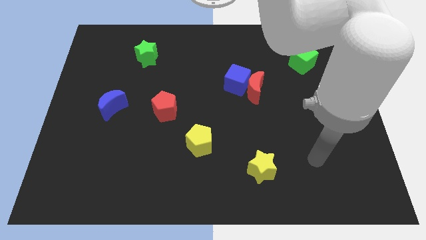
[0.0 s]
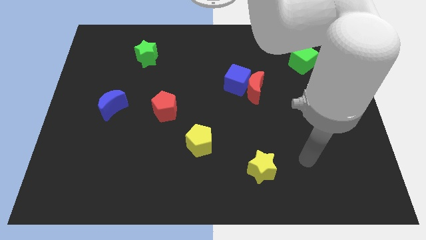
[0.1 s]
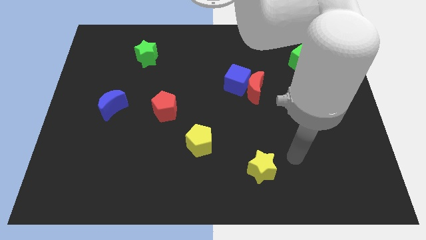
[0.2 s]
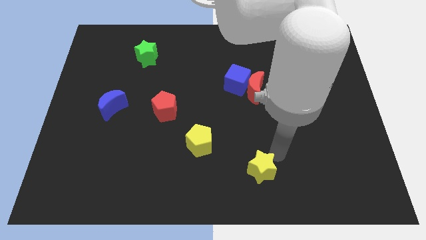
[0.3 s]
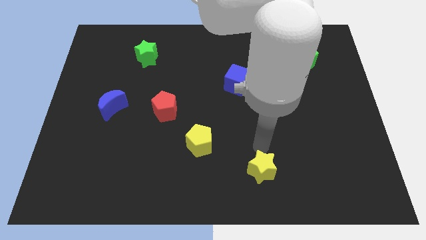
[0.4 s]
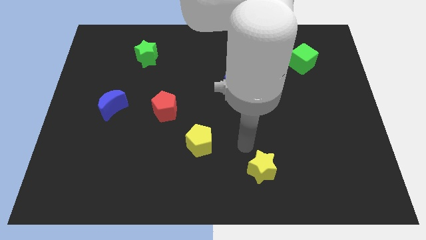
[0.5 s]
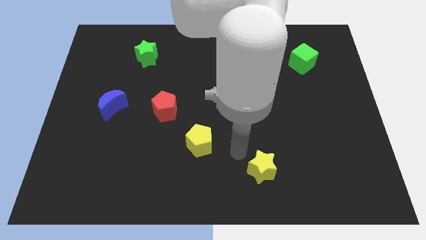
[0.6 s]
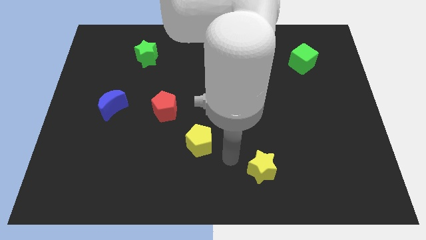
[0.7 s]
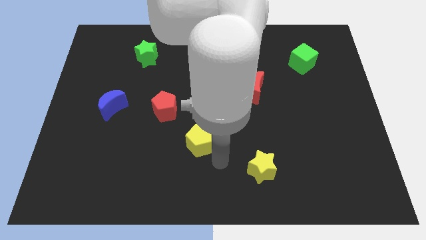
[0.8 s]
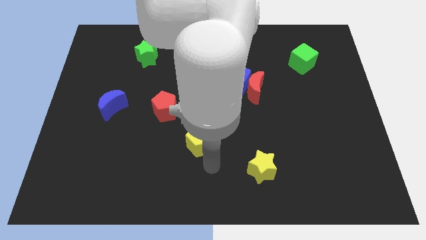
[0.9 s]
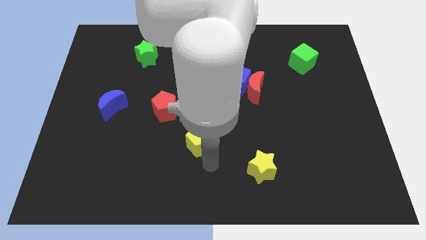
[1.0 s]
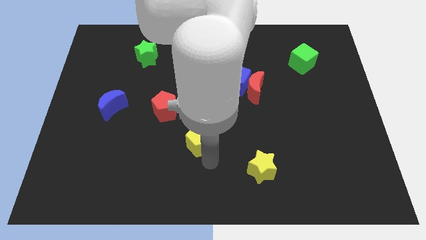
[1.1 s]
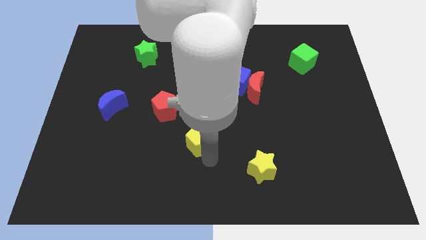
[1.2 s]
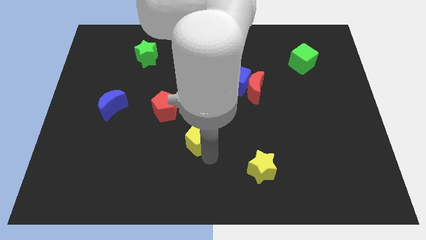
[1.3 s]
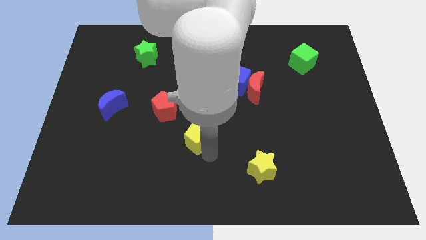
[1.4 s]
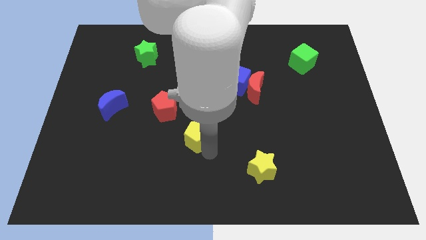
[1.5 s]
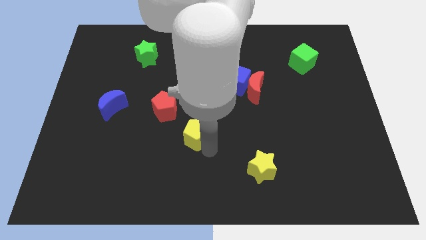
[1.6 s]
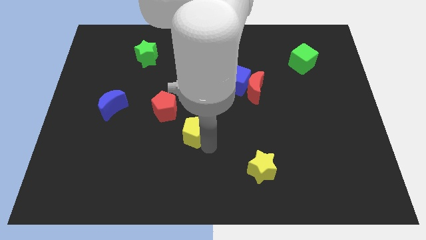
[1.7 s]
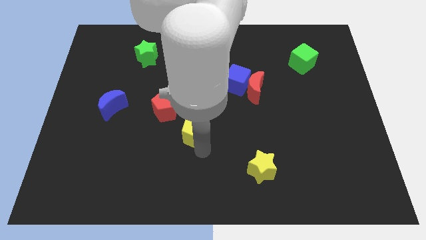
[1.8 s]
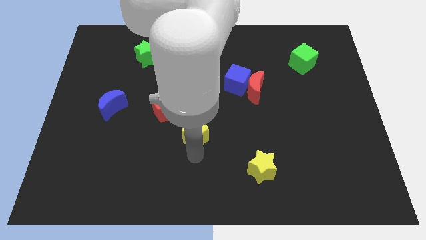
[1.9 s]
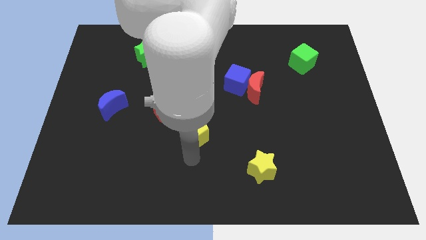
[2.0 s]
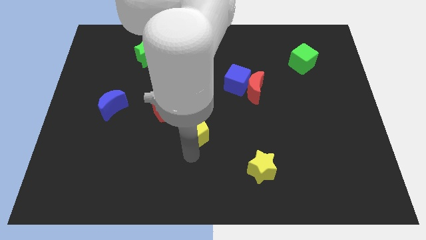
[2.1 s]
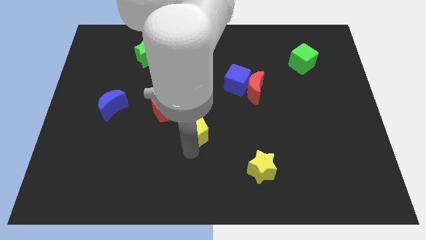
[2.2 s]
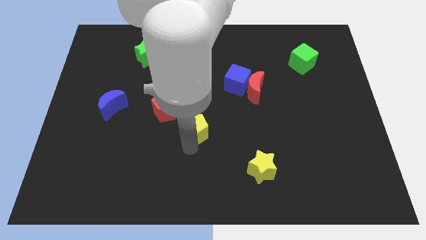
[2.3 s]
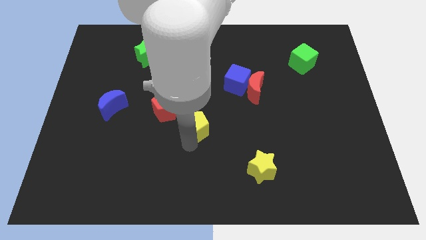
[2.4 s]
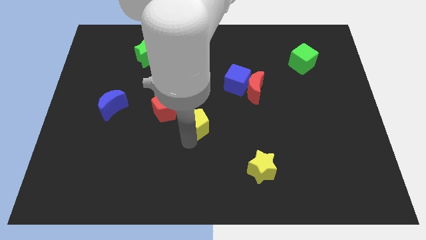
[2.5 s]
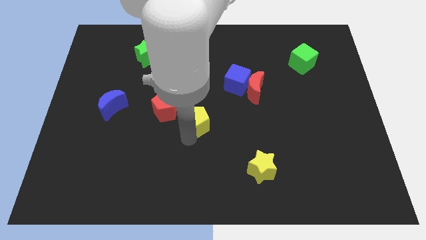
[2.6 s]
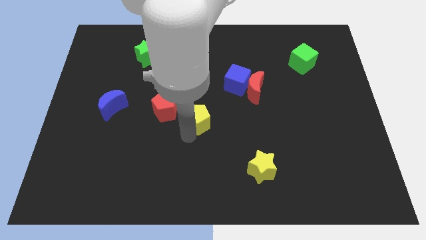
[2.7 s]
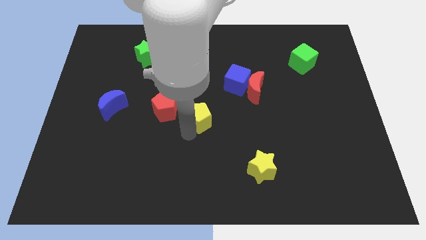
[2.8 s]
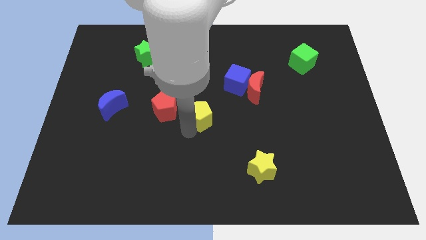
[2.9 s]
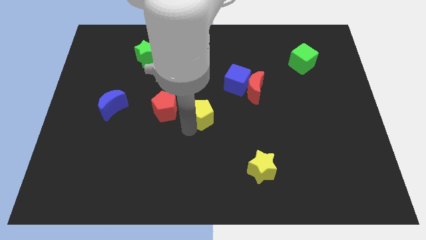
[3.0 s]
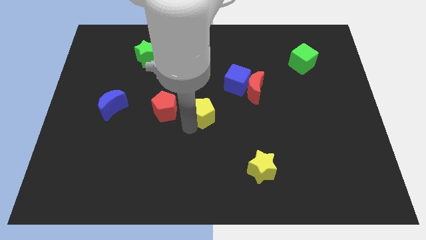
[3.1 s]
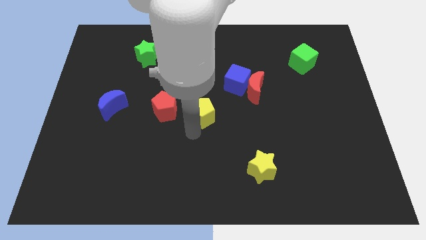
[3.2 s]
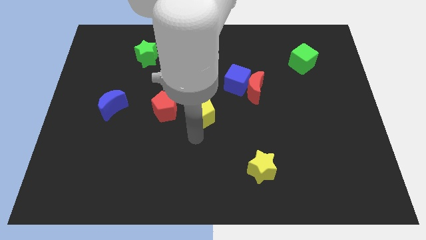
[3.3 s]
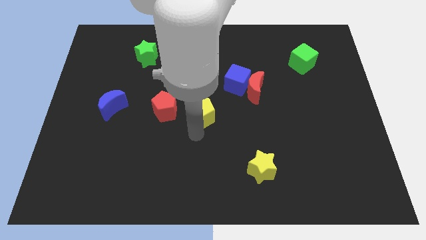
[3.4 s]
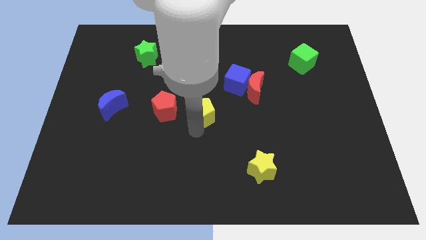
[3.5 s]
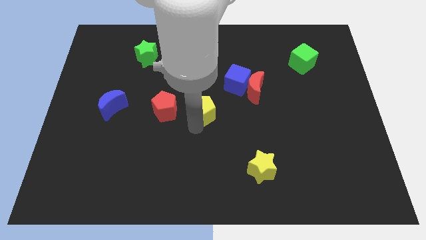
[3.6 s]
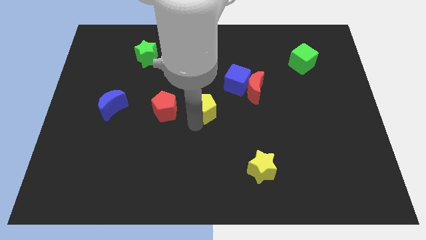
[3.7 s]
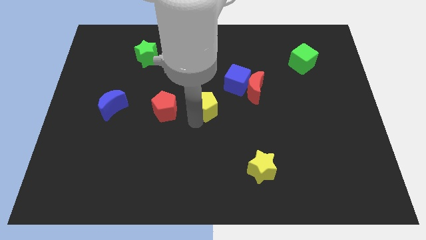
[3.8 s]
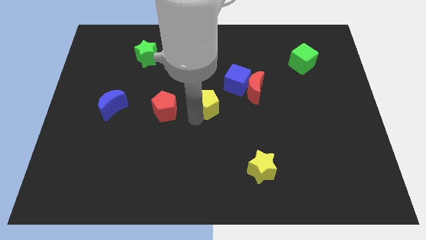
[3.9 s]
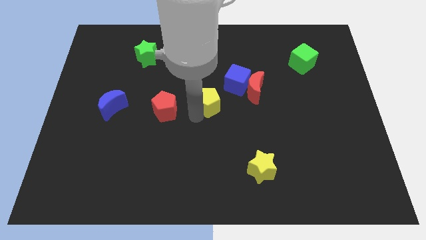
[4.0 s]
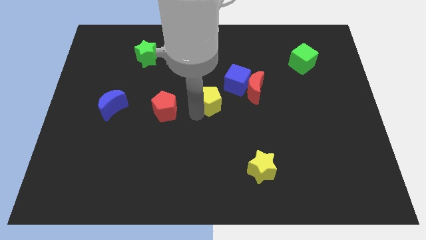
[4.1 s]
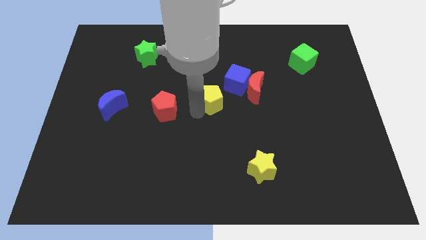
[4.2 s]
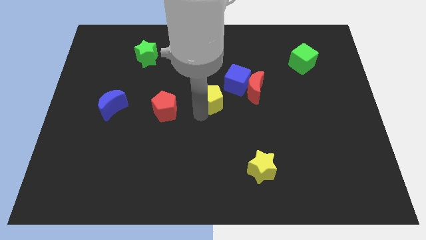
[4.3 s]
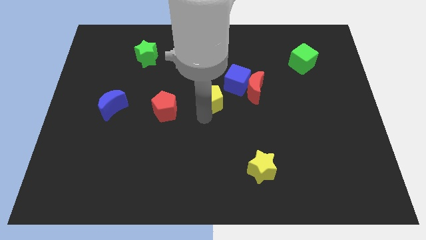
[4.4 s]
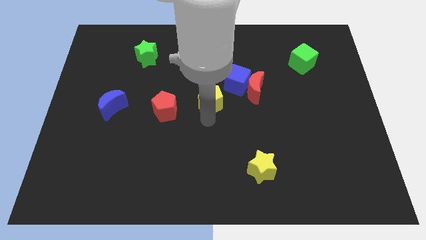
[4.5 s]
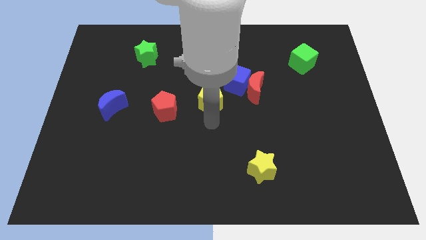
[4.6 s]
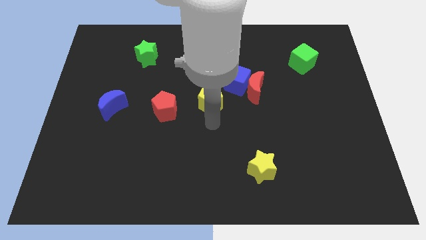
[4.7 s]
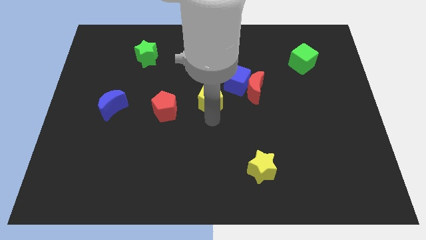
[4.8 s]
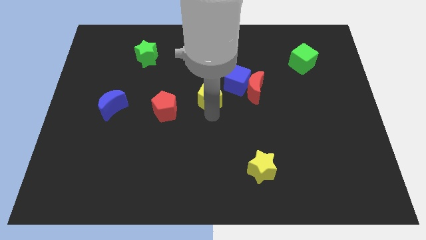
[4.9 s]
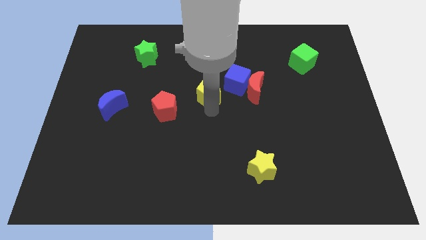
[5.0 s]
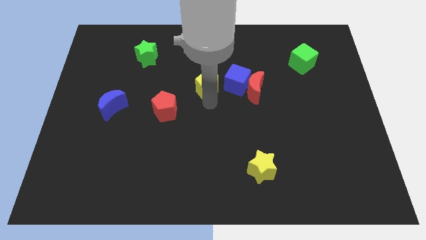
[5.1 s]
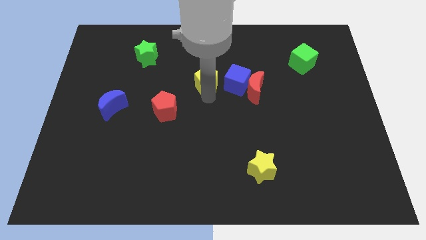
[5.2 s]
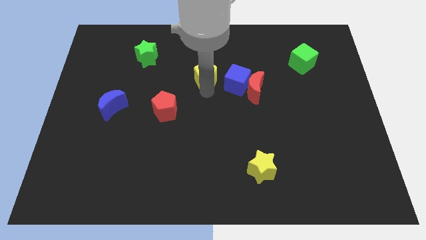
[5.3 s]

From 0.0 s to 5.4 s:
move the yellow pentagon diagonally up and to the left of the blue cube

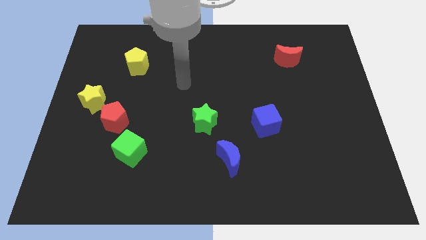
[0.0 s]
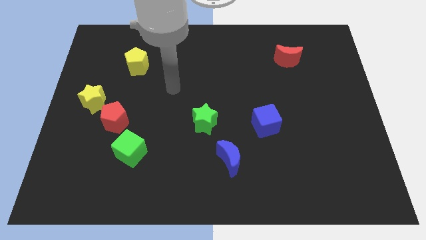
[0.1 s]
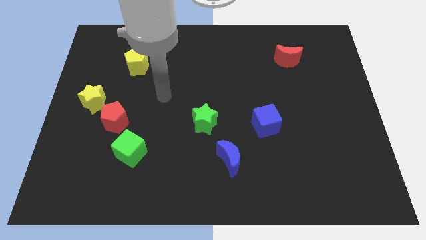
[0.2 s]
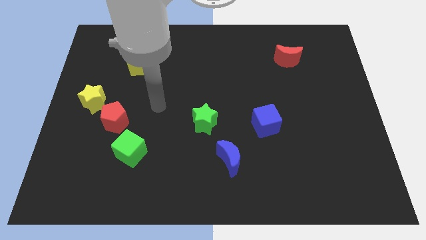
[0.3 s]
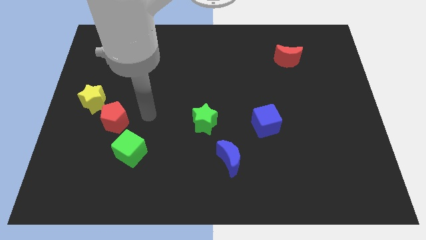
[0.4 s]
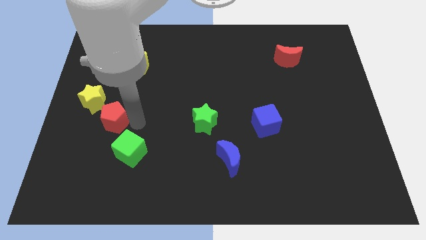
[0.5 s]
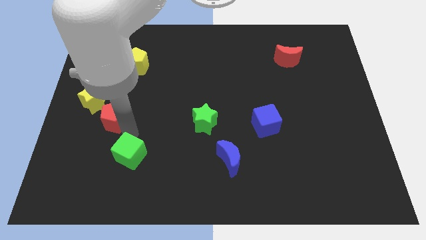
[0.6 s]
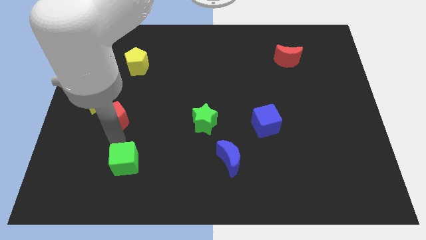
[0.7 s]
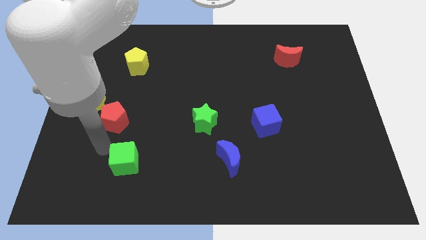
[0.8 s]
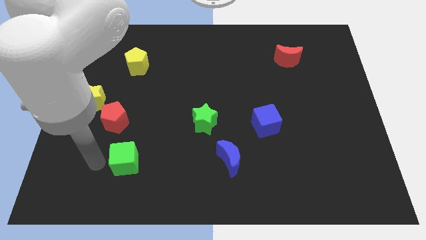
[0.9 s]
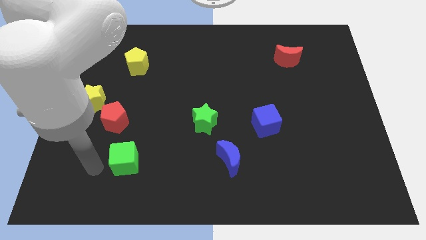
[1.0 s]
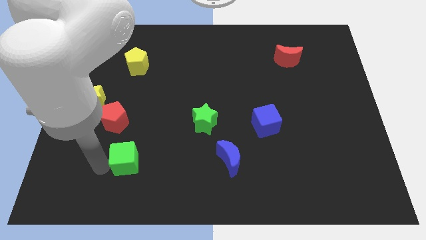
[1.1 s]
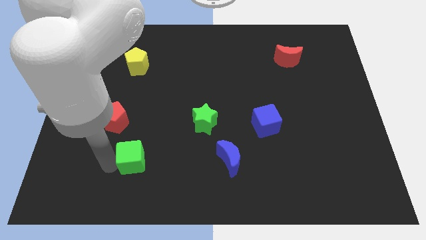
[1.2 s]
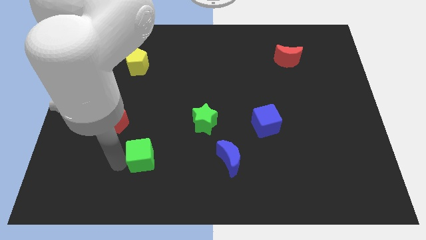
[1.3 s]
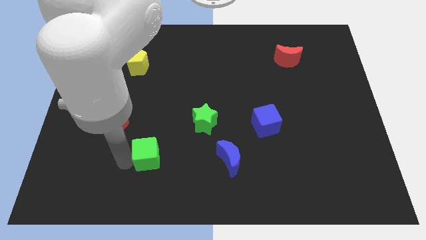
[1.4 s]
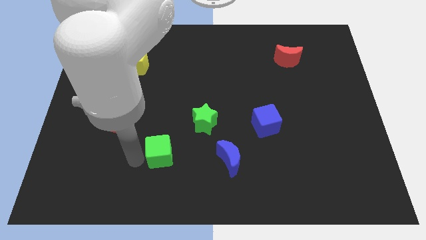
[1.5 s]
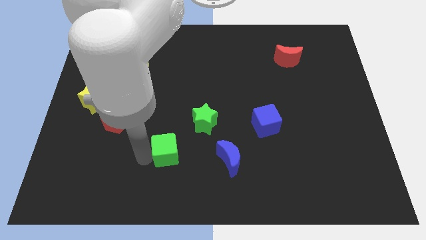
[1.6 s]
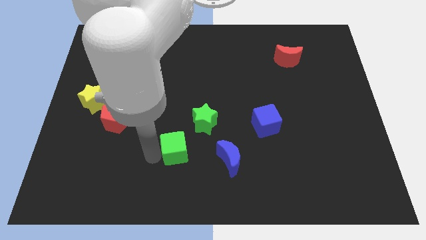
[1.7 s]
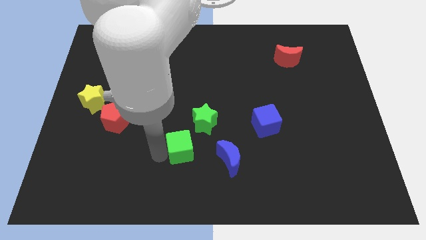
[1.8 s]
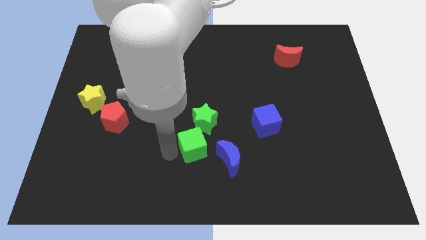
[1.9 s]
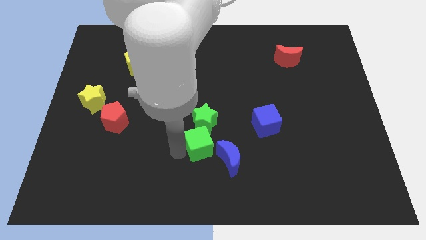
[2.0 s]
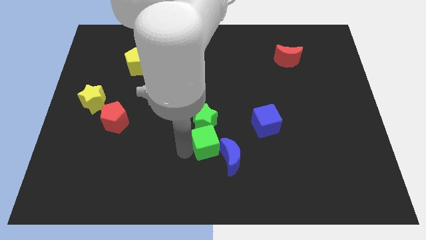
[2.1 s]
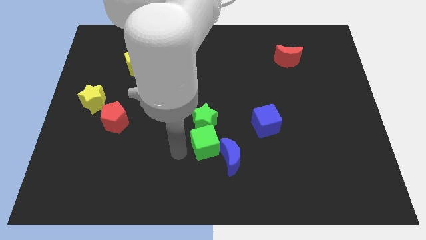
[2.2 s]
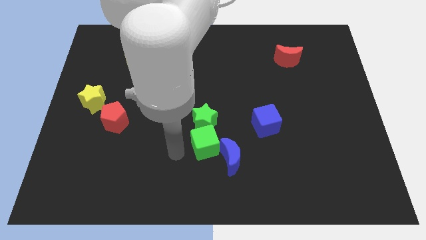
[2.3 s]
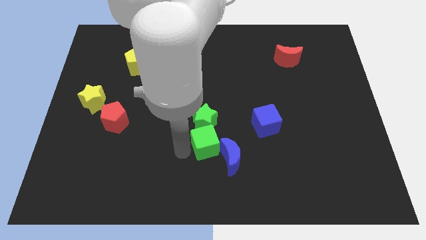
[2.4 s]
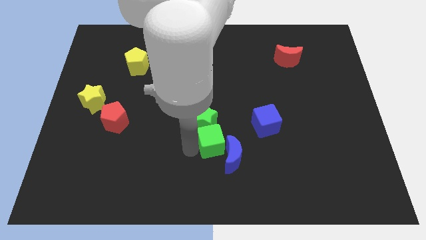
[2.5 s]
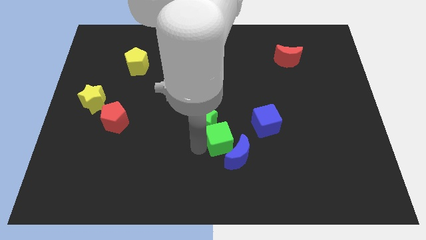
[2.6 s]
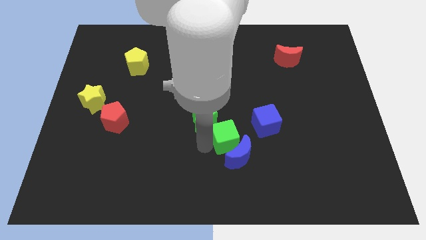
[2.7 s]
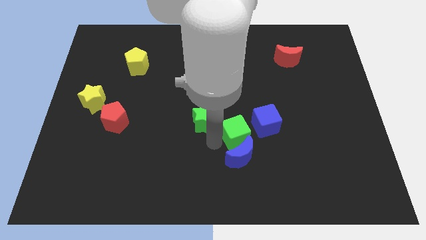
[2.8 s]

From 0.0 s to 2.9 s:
put the green cube to the top right of the blue moon
